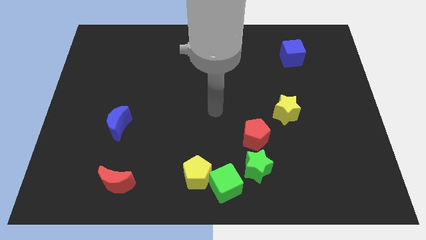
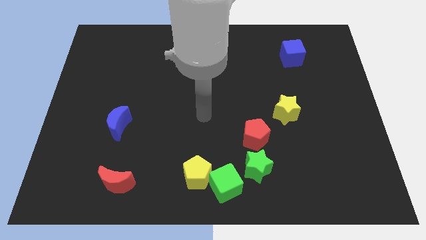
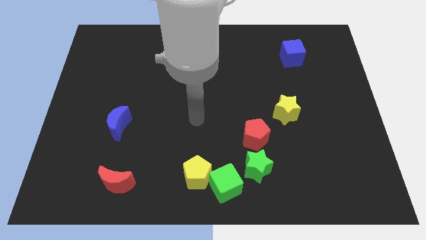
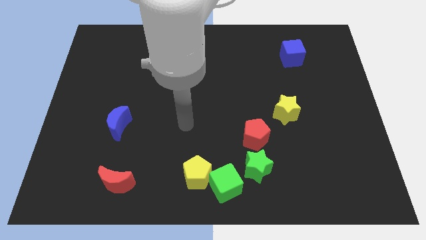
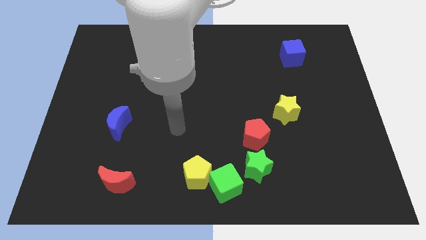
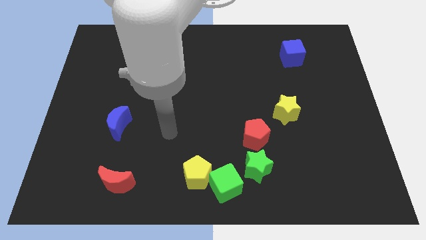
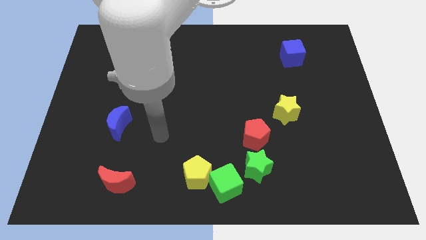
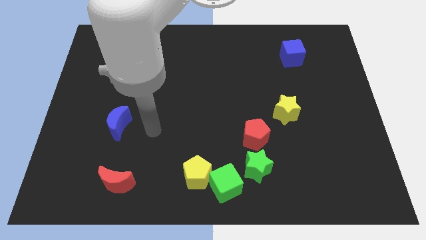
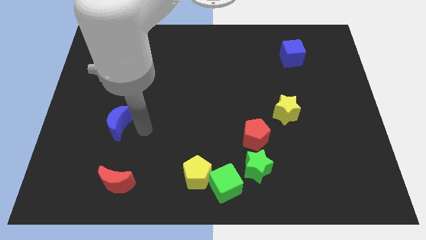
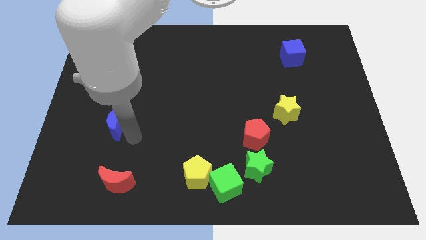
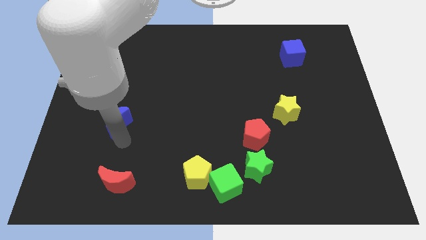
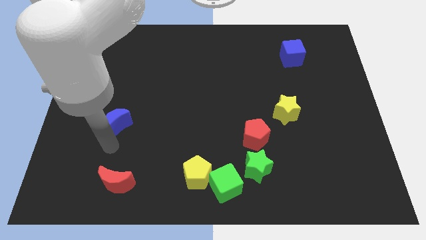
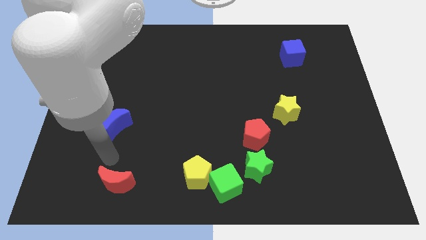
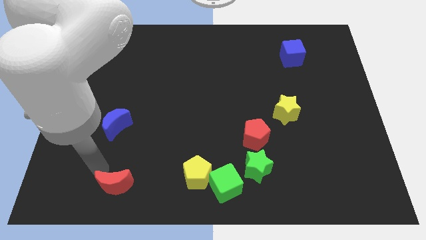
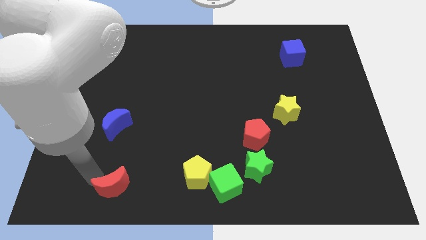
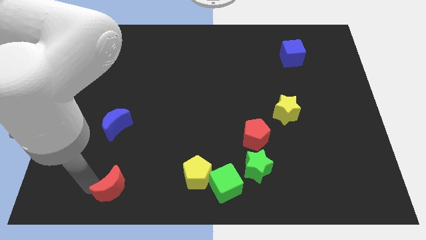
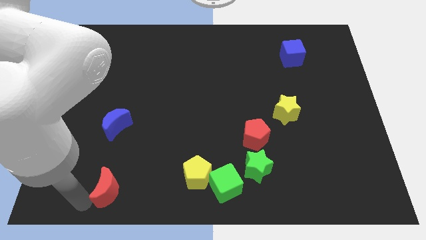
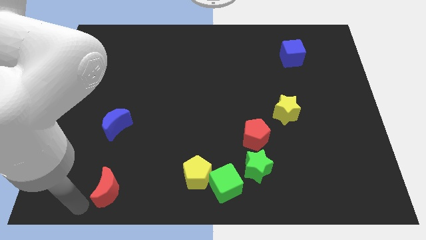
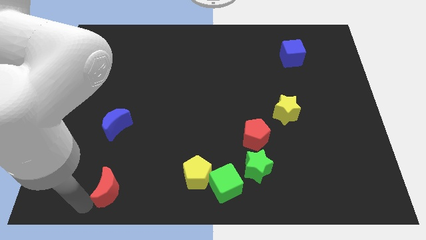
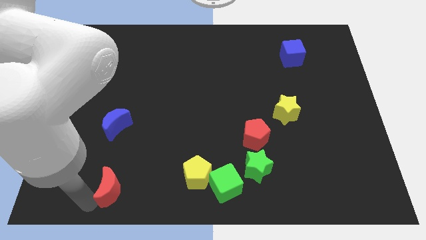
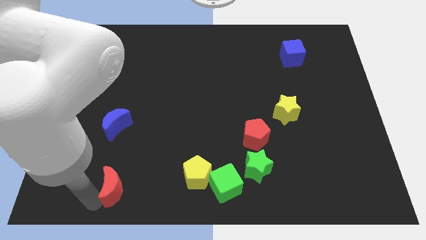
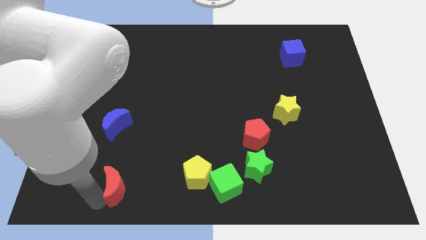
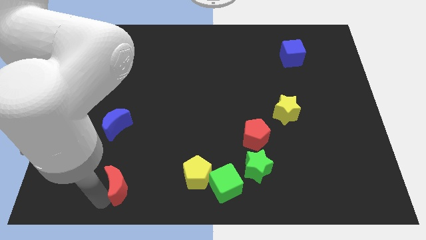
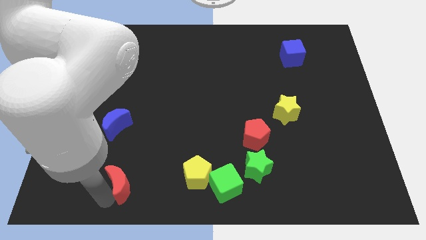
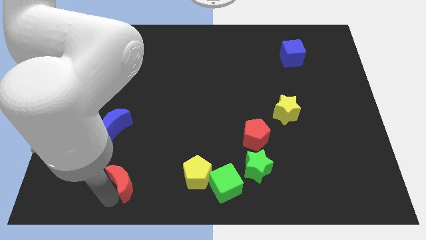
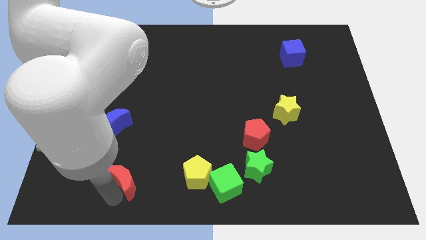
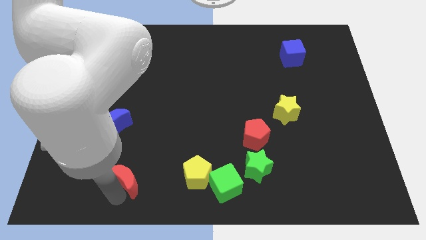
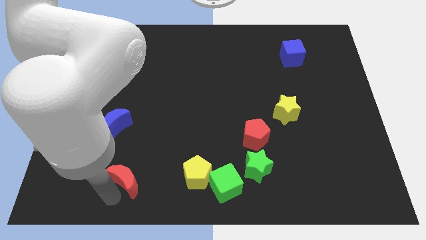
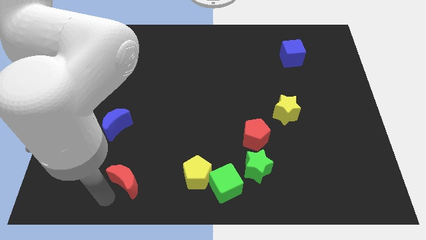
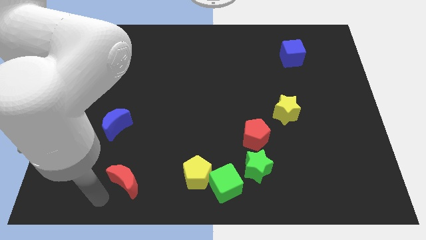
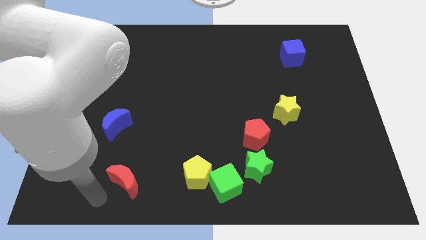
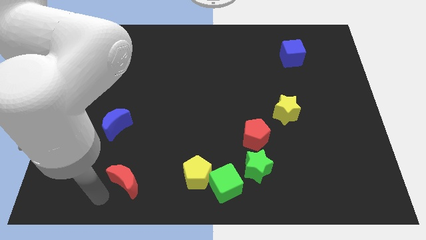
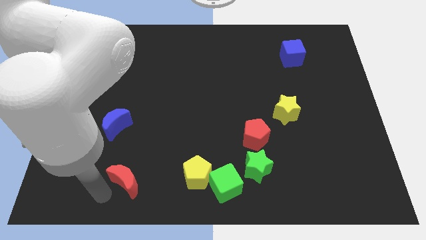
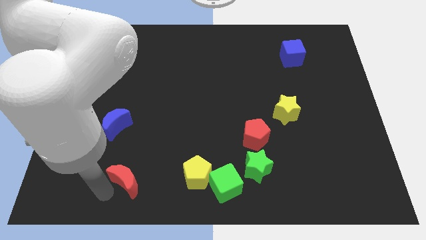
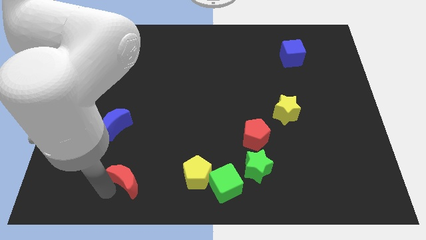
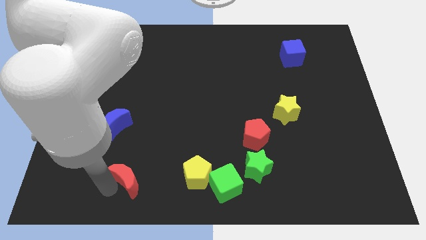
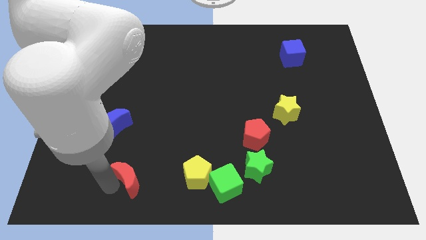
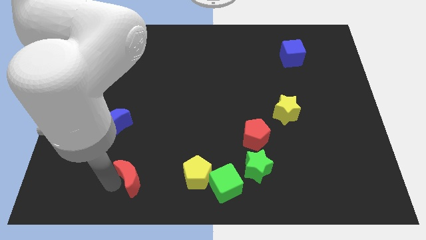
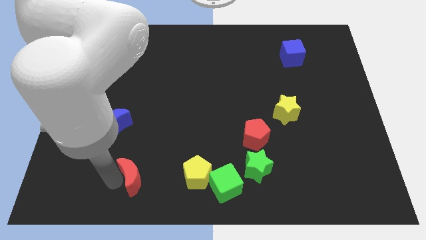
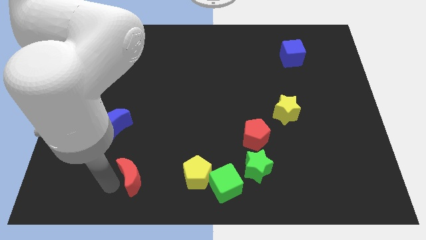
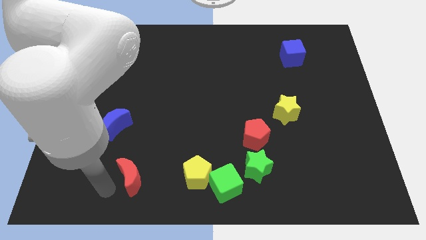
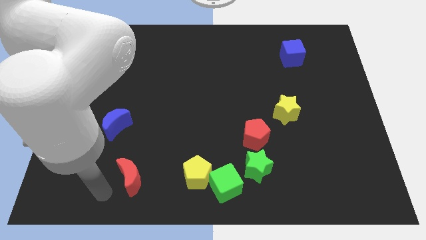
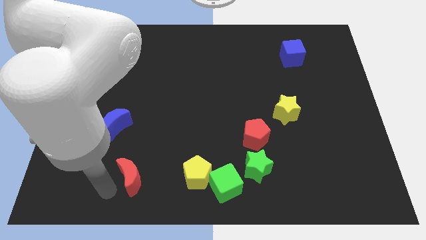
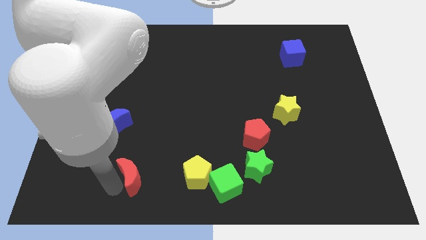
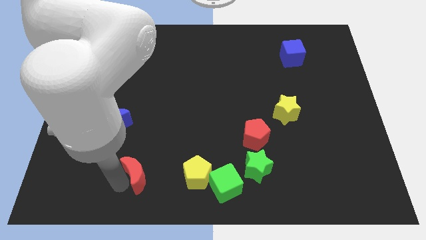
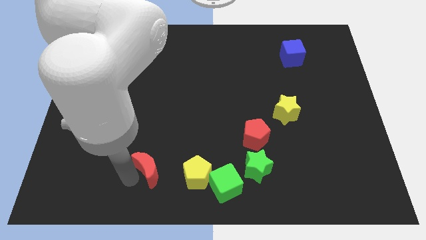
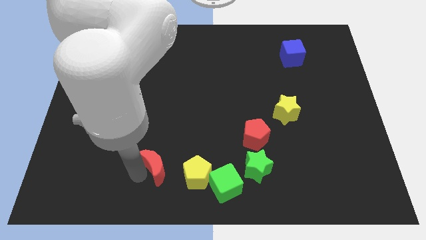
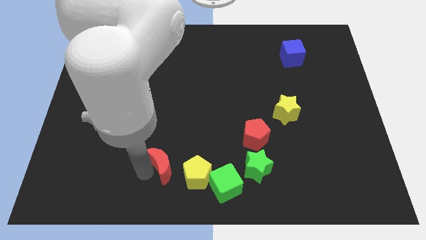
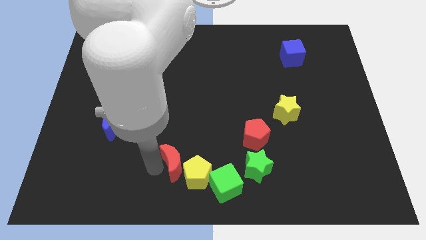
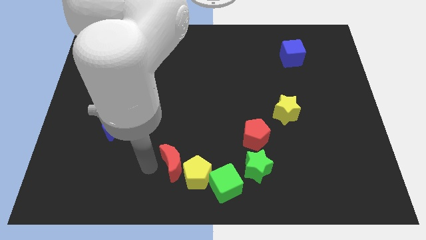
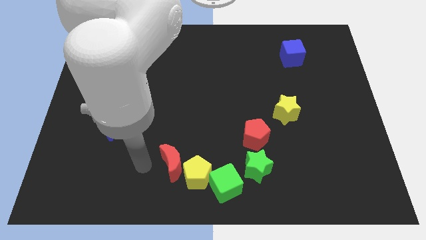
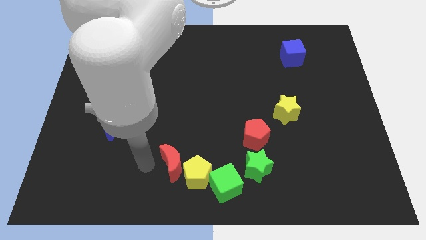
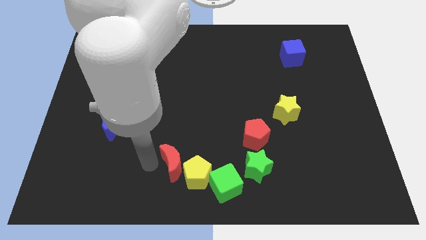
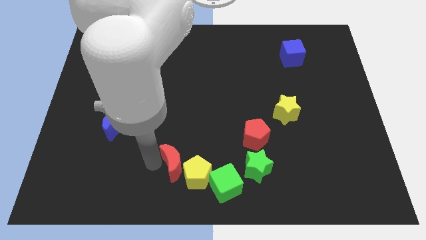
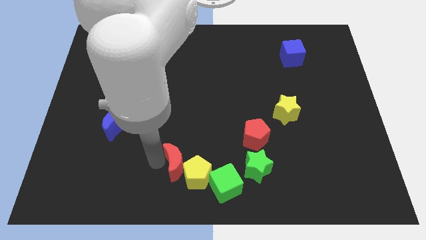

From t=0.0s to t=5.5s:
push the red moon diagonally up and to the left of the green cube
